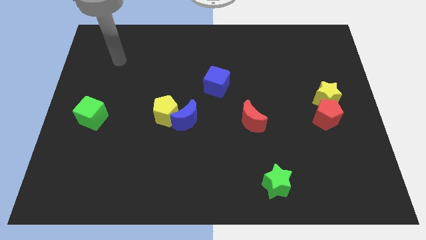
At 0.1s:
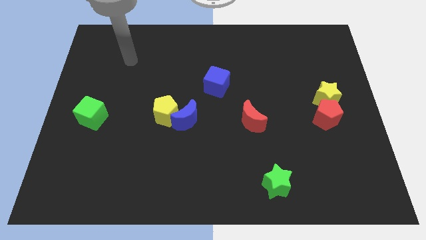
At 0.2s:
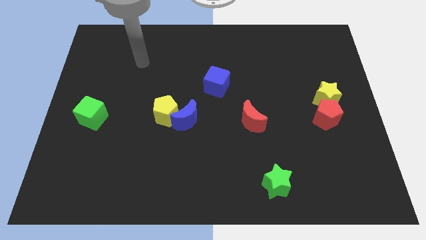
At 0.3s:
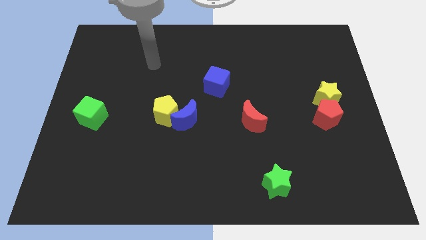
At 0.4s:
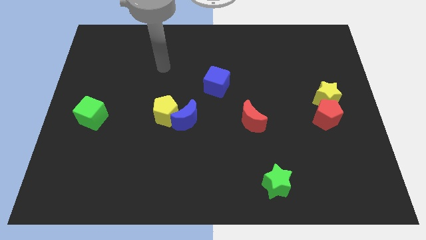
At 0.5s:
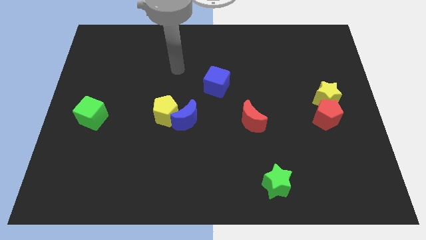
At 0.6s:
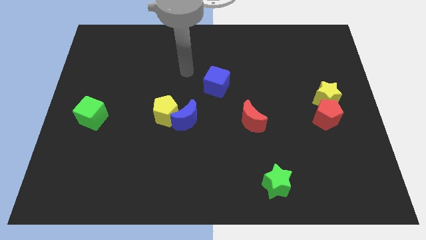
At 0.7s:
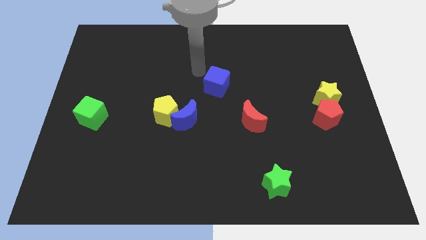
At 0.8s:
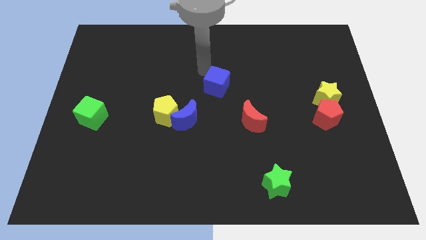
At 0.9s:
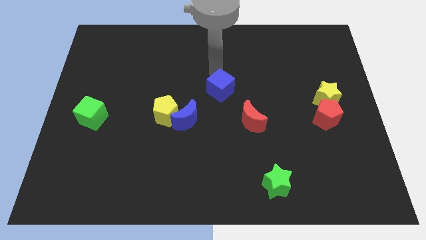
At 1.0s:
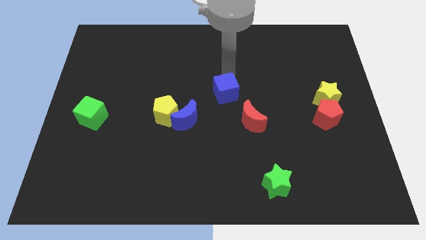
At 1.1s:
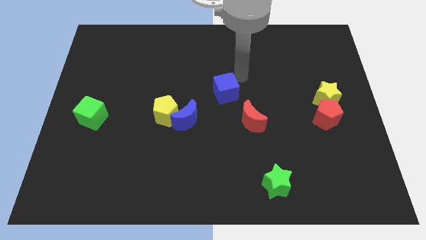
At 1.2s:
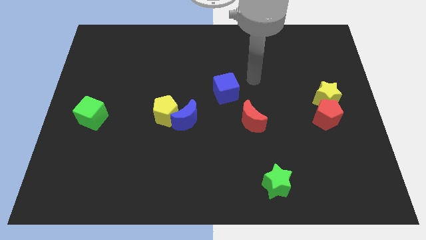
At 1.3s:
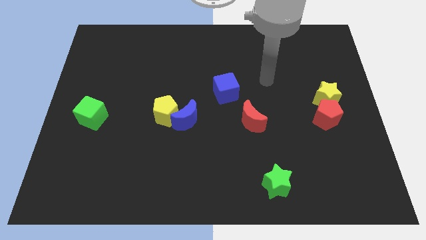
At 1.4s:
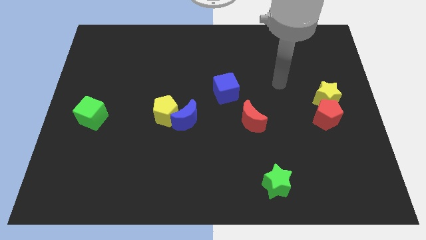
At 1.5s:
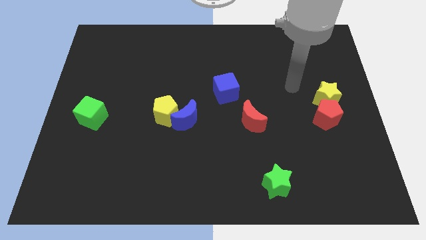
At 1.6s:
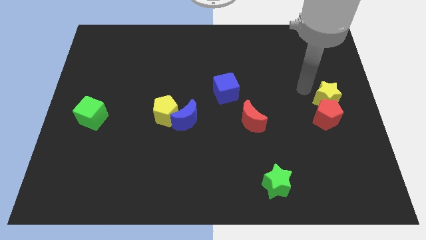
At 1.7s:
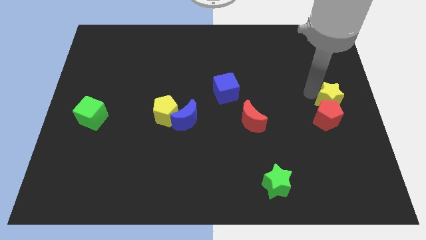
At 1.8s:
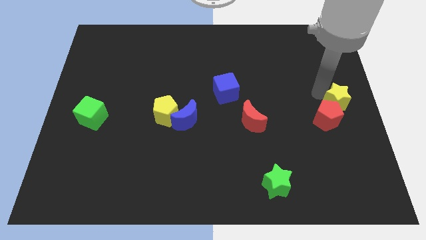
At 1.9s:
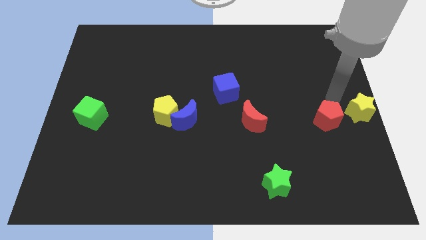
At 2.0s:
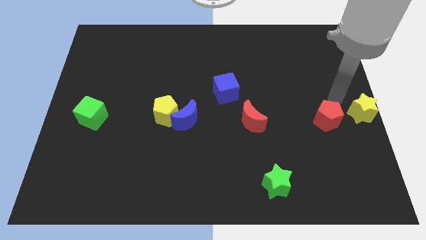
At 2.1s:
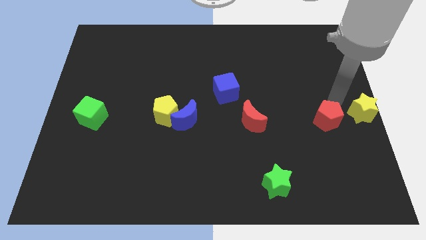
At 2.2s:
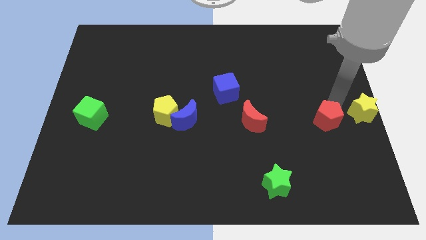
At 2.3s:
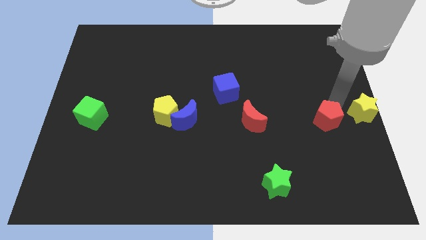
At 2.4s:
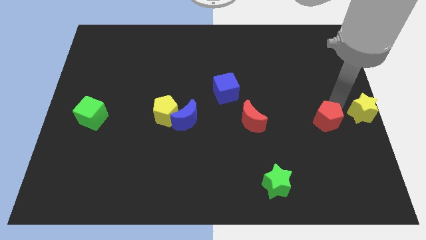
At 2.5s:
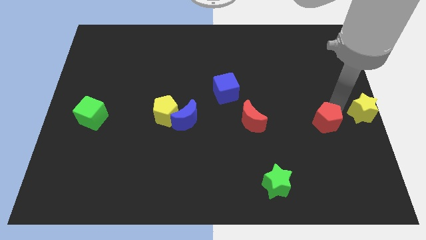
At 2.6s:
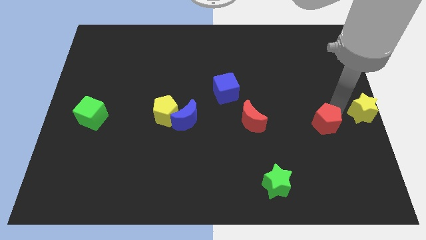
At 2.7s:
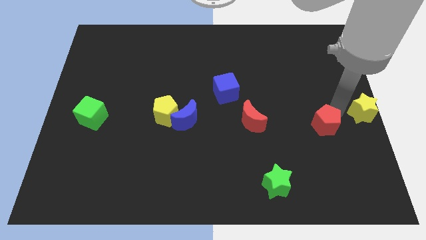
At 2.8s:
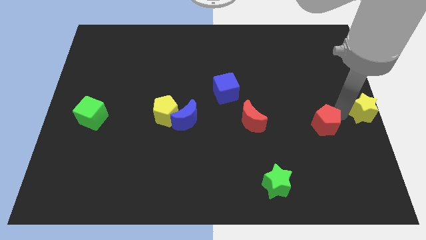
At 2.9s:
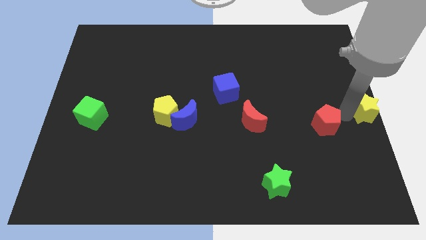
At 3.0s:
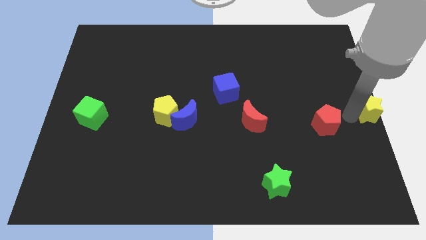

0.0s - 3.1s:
separate the red pentagon from the yellow star

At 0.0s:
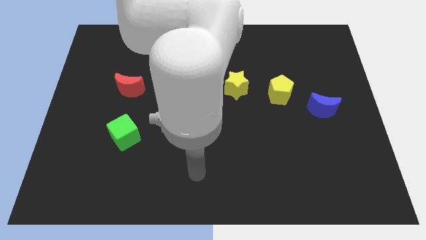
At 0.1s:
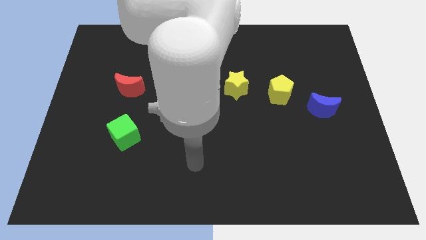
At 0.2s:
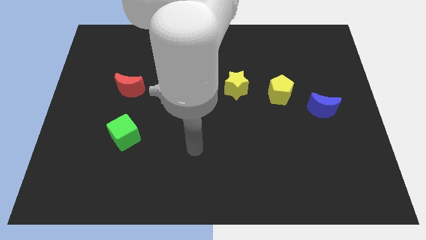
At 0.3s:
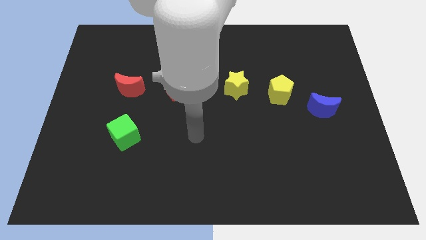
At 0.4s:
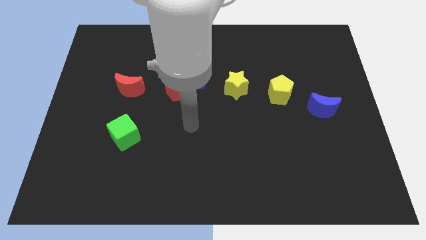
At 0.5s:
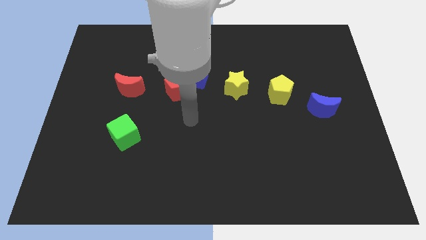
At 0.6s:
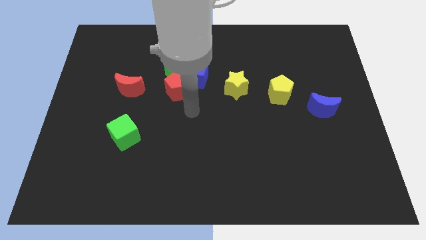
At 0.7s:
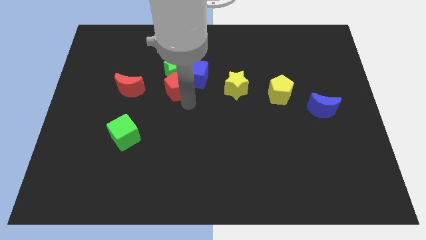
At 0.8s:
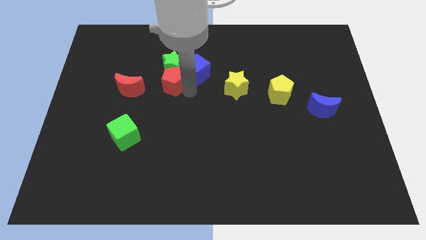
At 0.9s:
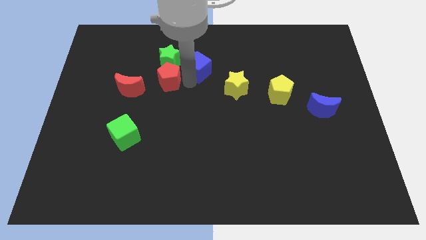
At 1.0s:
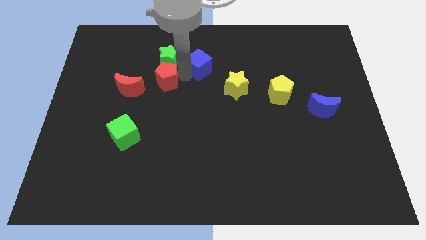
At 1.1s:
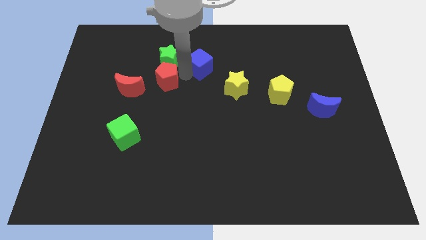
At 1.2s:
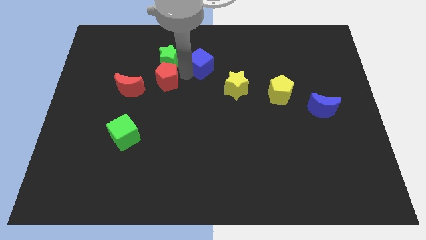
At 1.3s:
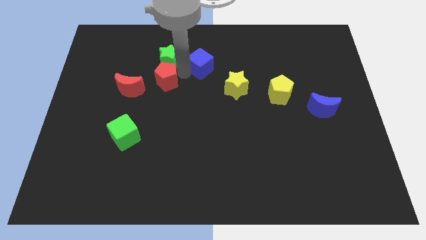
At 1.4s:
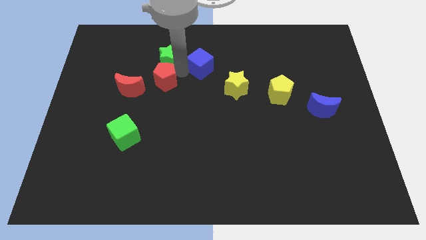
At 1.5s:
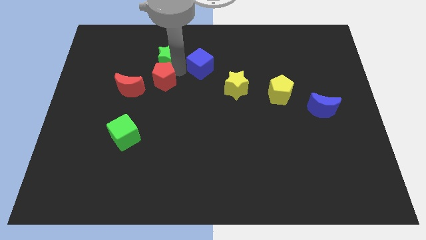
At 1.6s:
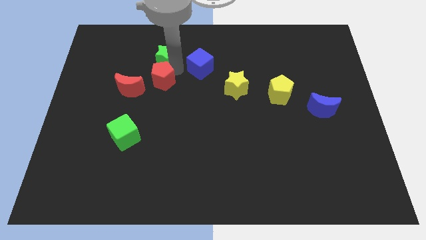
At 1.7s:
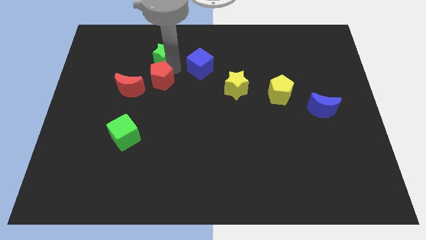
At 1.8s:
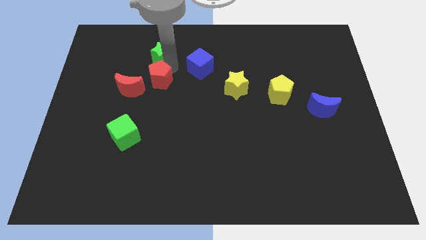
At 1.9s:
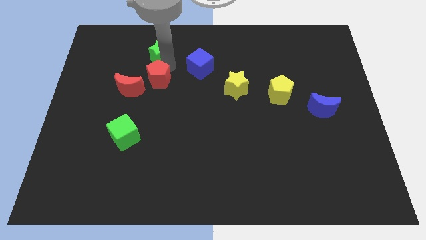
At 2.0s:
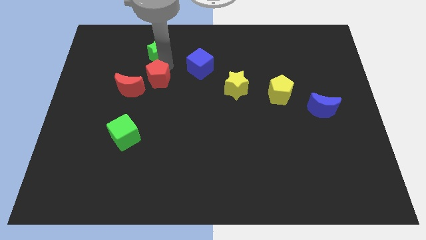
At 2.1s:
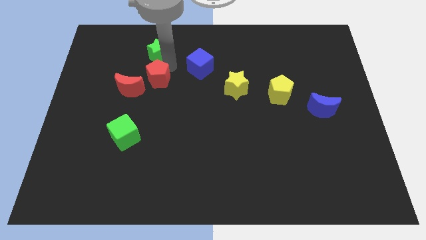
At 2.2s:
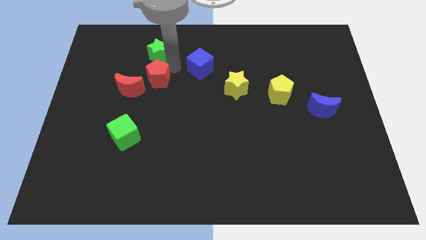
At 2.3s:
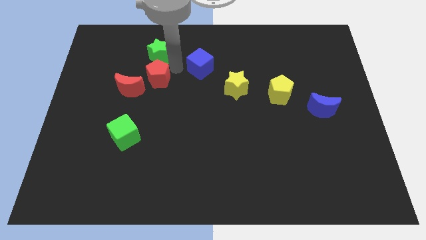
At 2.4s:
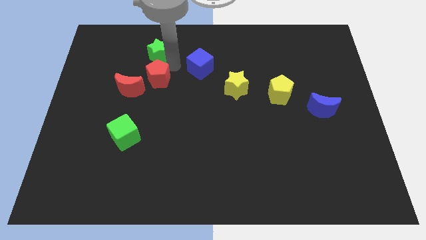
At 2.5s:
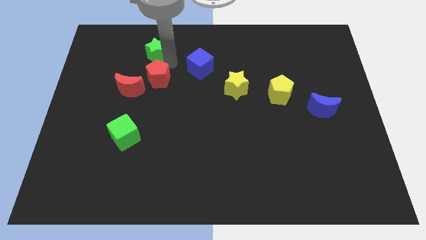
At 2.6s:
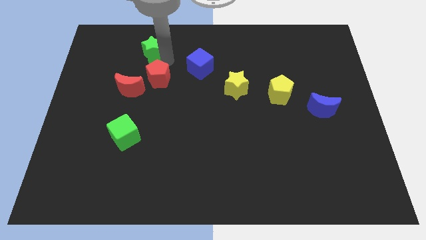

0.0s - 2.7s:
pull the green star apart from the blue cube and red pentagon

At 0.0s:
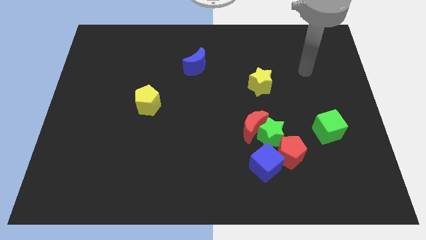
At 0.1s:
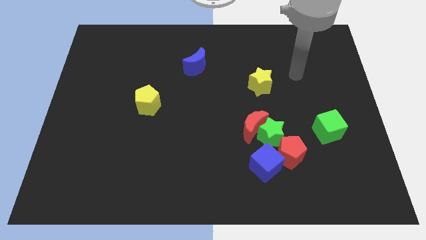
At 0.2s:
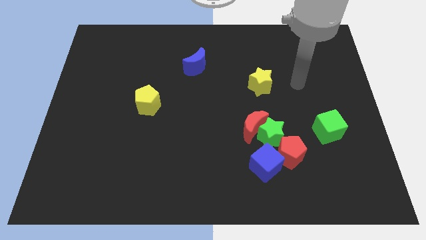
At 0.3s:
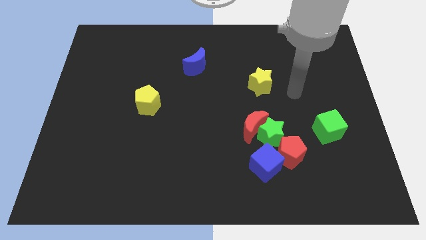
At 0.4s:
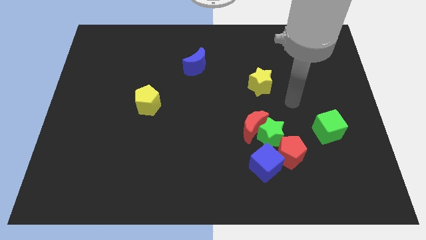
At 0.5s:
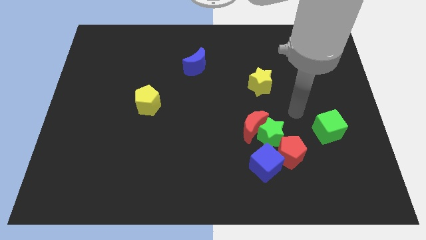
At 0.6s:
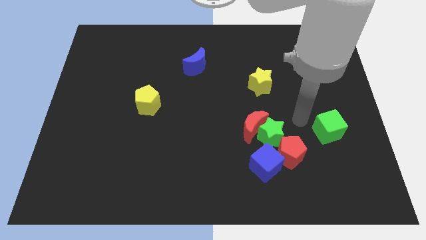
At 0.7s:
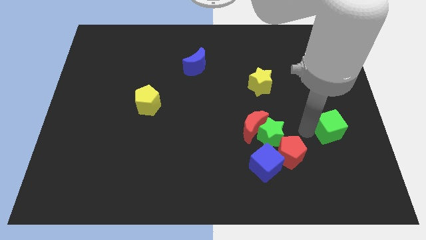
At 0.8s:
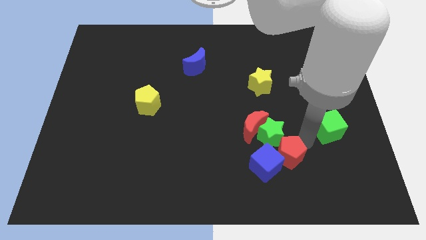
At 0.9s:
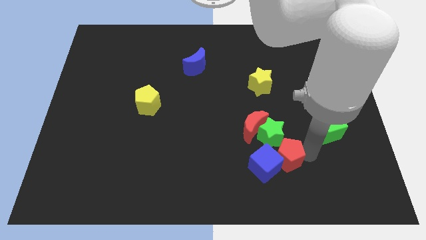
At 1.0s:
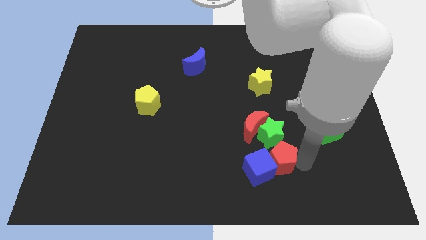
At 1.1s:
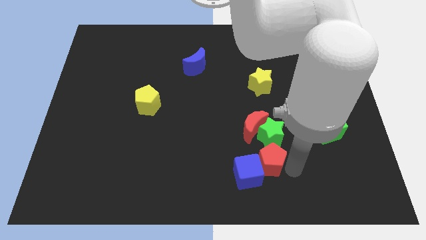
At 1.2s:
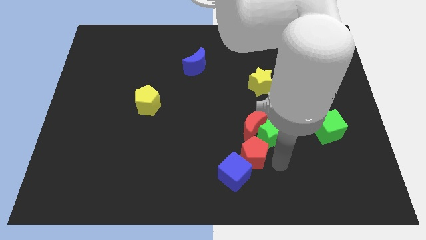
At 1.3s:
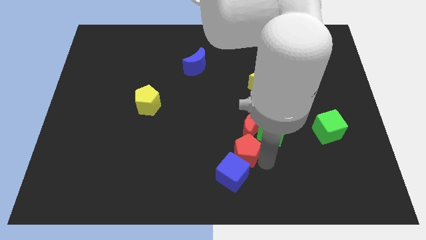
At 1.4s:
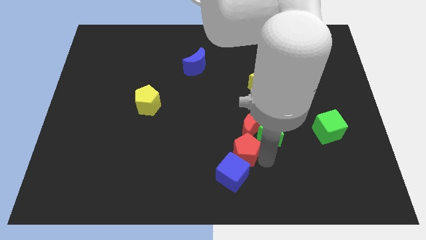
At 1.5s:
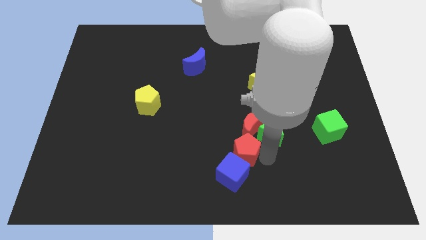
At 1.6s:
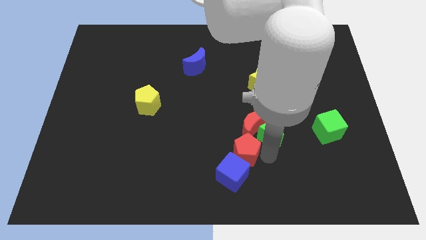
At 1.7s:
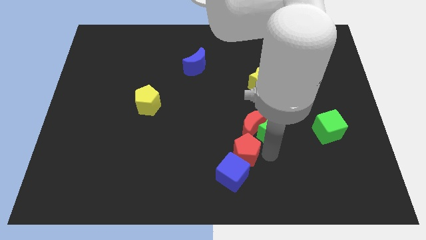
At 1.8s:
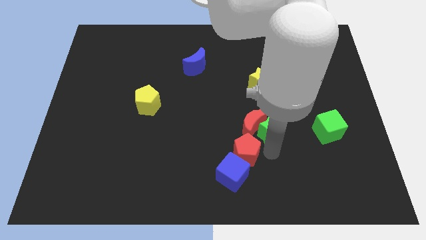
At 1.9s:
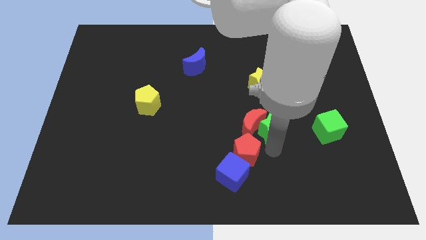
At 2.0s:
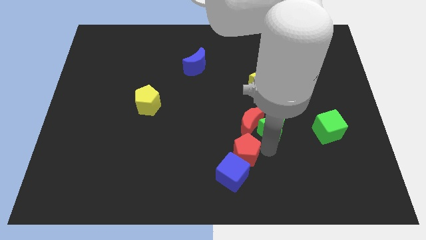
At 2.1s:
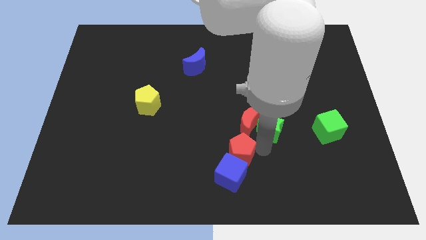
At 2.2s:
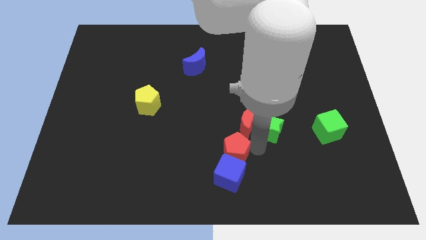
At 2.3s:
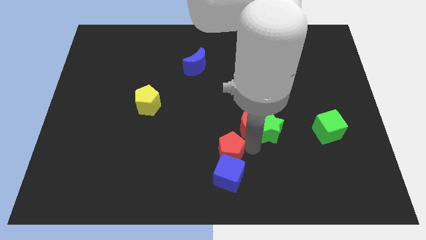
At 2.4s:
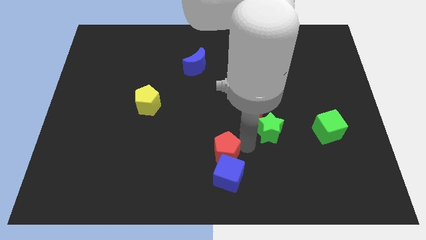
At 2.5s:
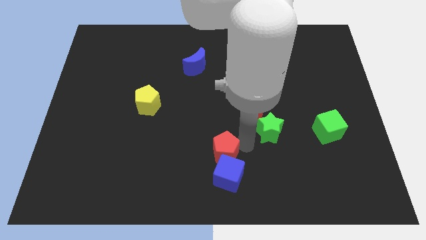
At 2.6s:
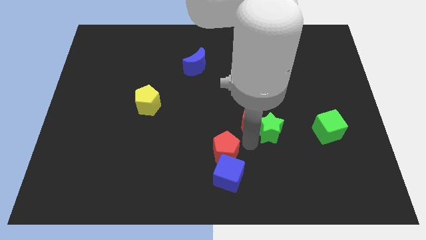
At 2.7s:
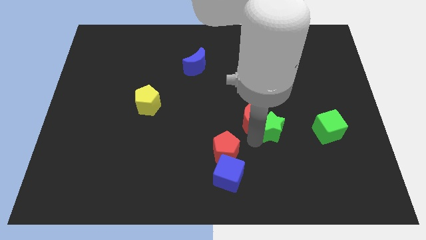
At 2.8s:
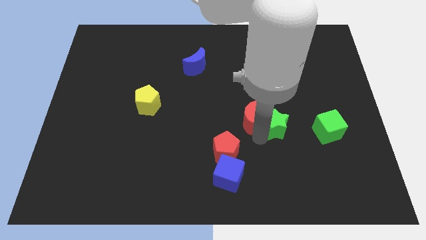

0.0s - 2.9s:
separate the green star from the red moon, red pentagon, and blue cube

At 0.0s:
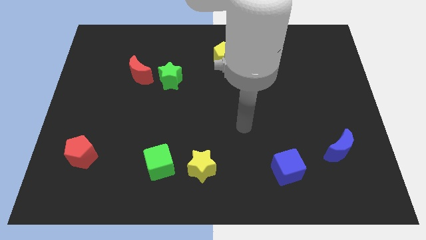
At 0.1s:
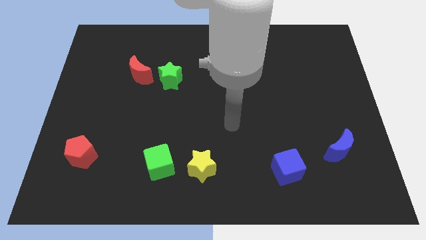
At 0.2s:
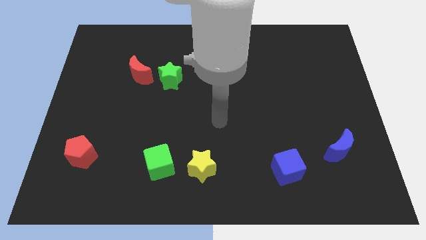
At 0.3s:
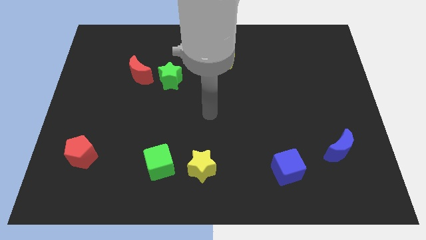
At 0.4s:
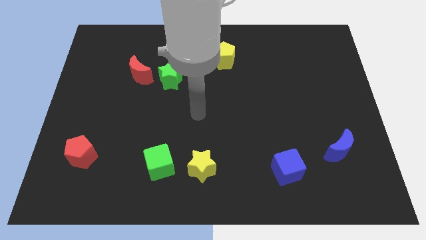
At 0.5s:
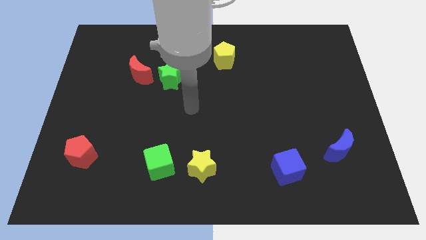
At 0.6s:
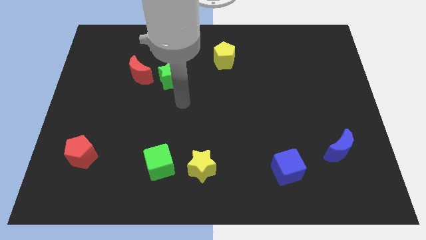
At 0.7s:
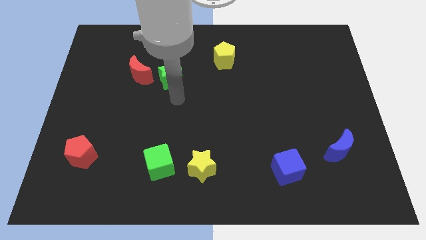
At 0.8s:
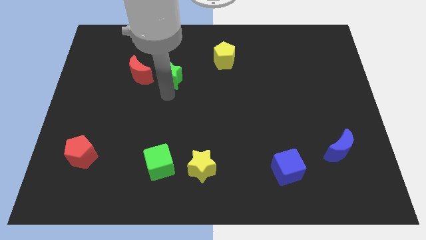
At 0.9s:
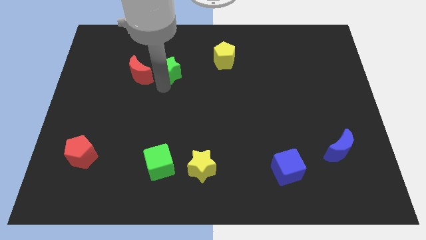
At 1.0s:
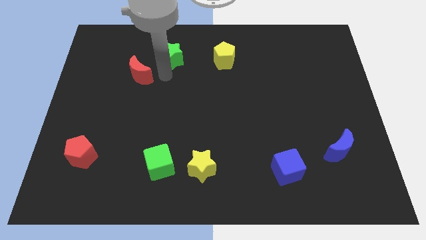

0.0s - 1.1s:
separate the red moon from the green star
